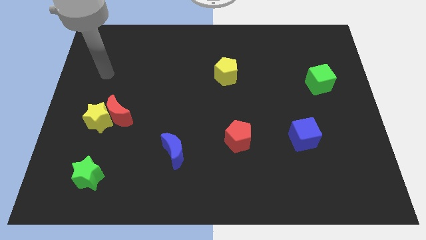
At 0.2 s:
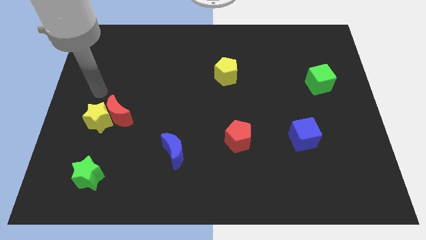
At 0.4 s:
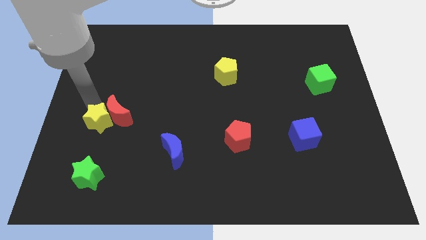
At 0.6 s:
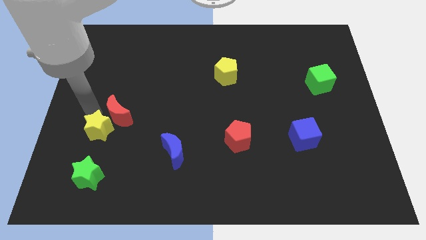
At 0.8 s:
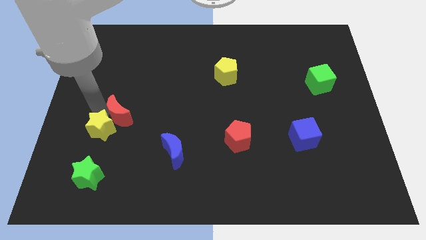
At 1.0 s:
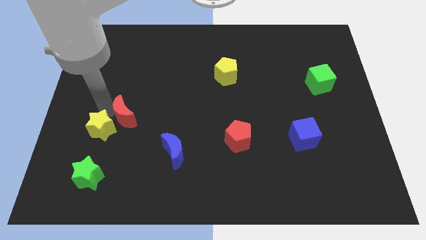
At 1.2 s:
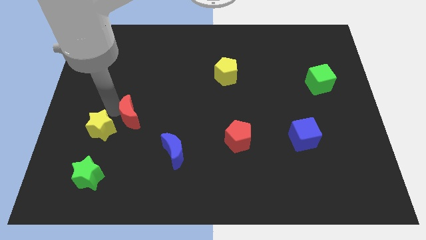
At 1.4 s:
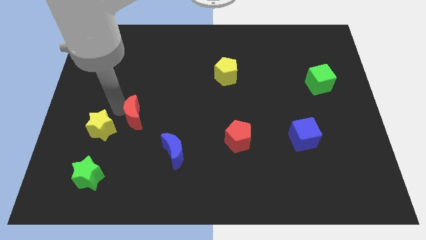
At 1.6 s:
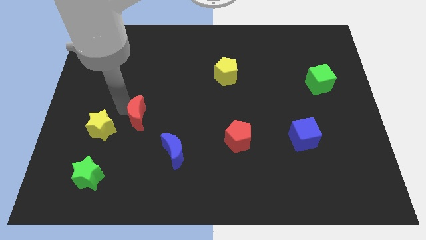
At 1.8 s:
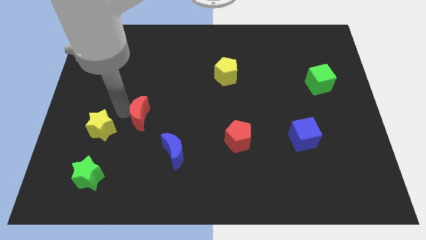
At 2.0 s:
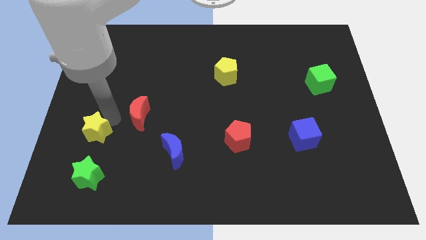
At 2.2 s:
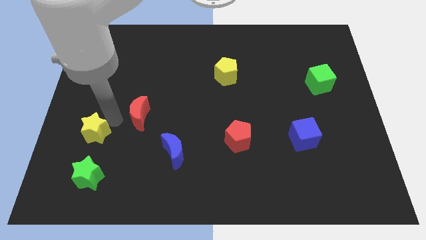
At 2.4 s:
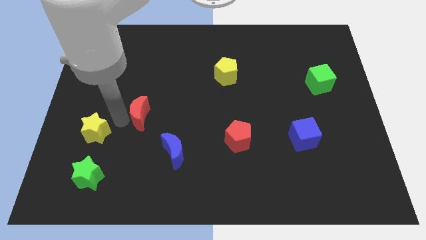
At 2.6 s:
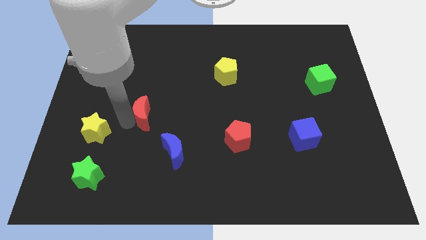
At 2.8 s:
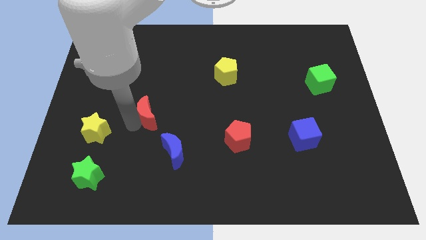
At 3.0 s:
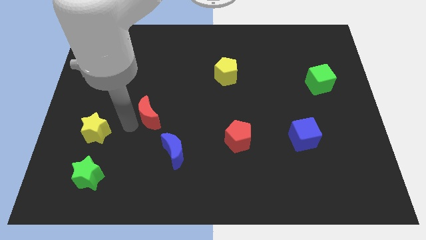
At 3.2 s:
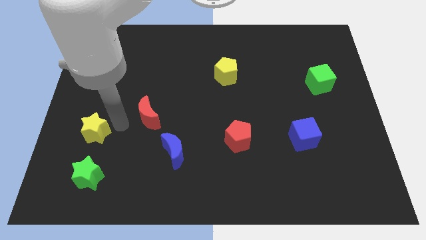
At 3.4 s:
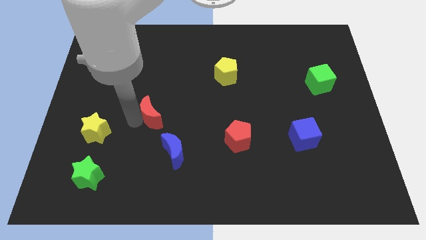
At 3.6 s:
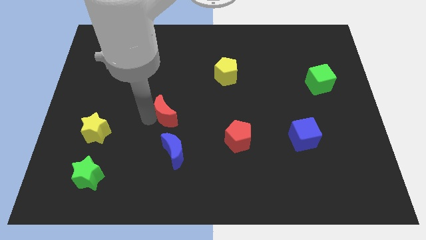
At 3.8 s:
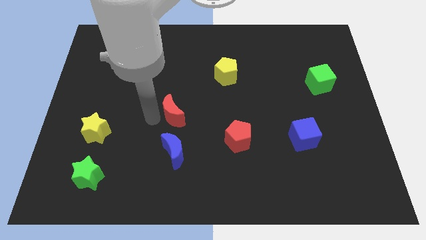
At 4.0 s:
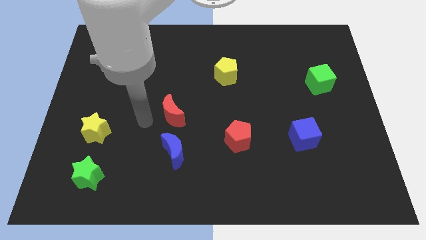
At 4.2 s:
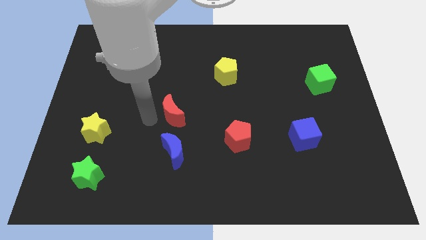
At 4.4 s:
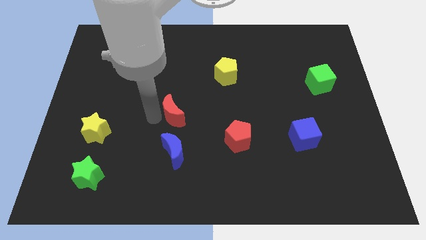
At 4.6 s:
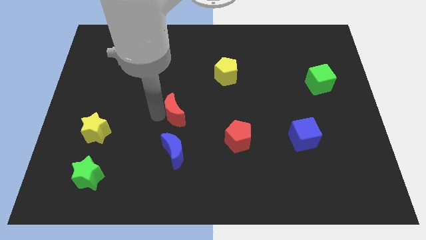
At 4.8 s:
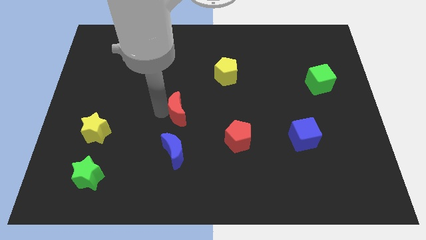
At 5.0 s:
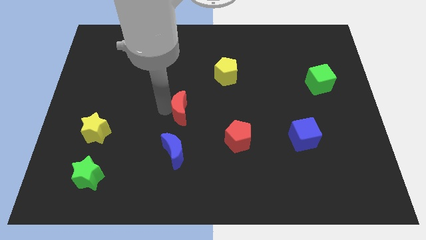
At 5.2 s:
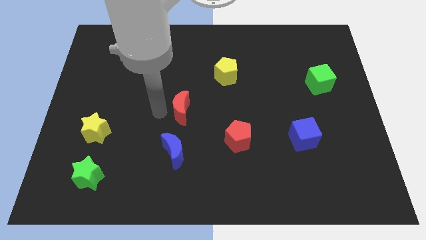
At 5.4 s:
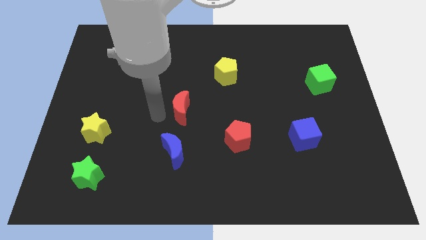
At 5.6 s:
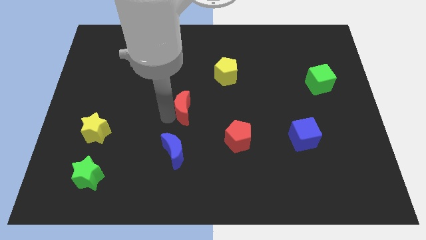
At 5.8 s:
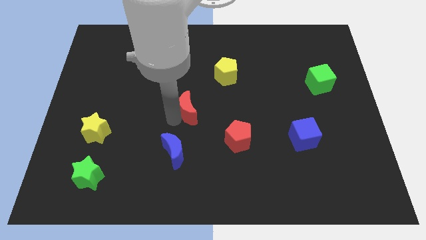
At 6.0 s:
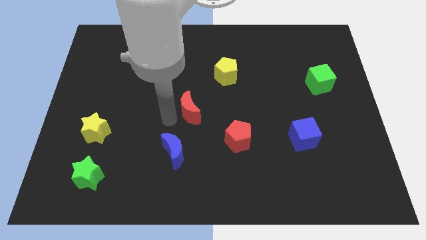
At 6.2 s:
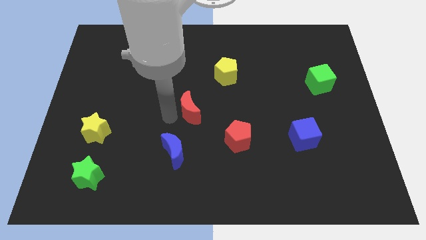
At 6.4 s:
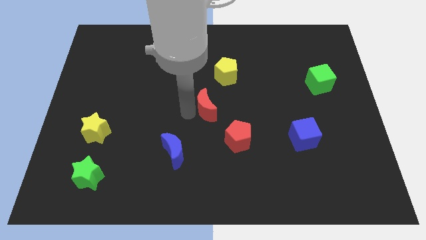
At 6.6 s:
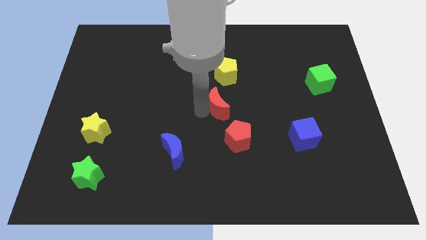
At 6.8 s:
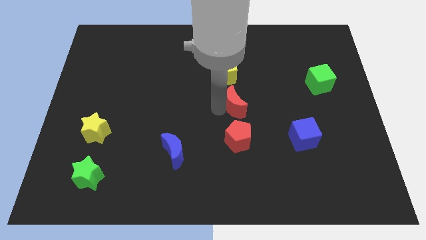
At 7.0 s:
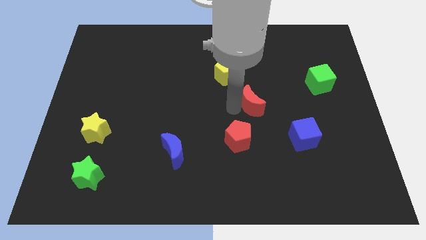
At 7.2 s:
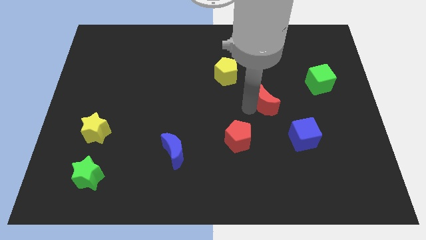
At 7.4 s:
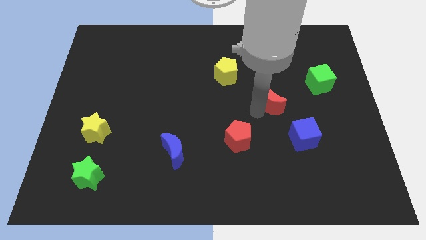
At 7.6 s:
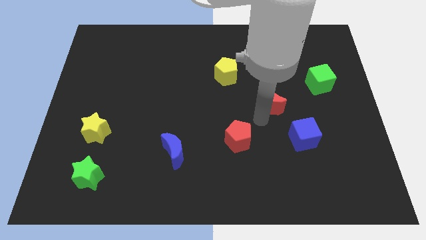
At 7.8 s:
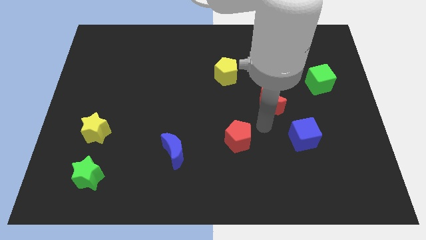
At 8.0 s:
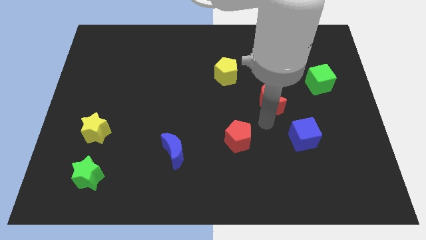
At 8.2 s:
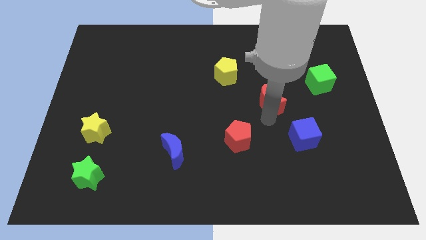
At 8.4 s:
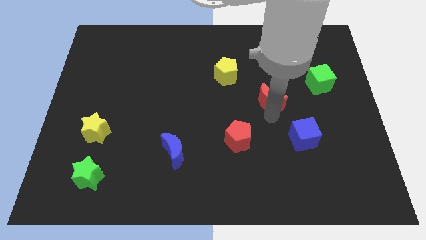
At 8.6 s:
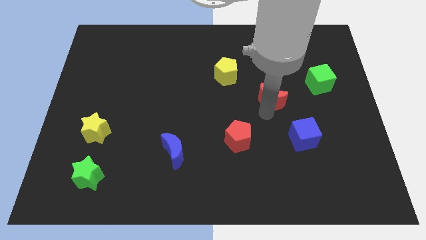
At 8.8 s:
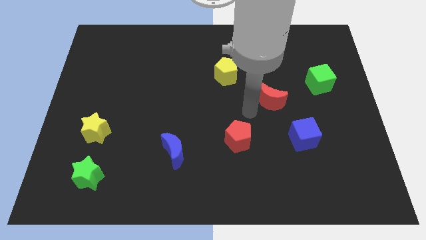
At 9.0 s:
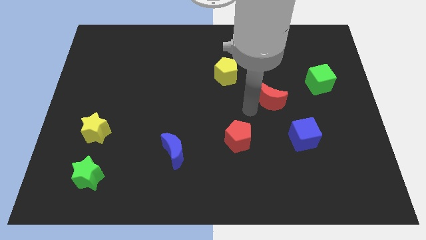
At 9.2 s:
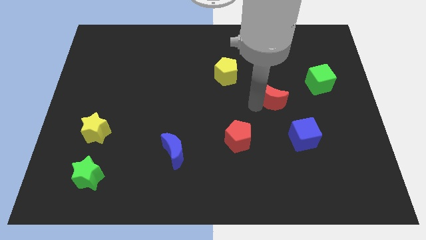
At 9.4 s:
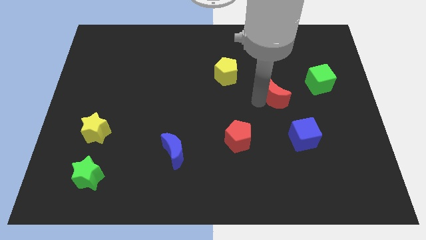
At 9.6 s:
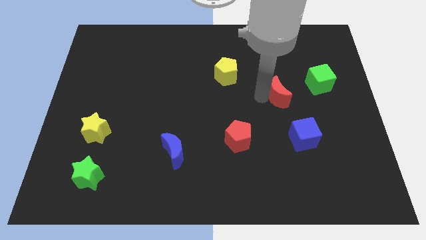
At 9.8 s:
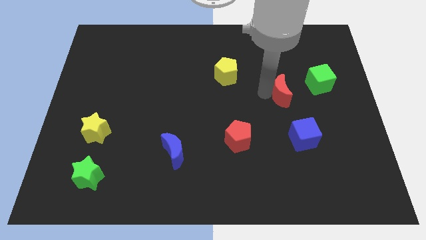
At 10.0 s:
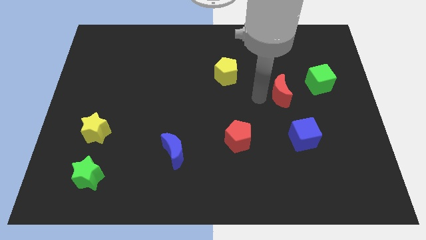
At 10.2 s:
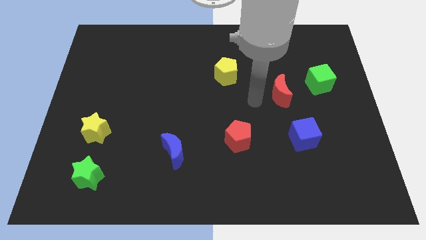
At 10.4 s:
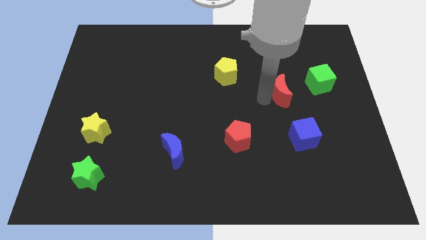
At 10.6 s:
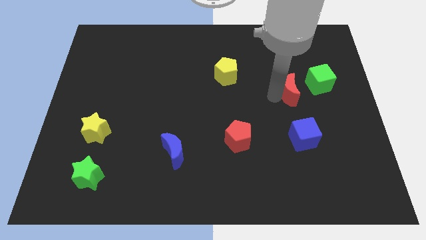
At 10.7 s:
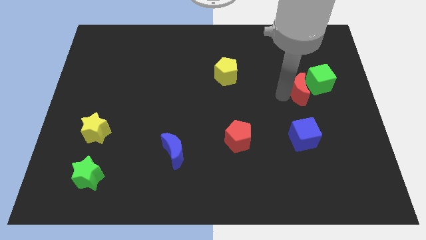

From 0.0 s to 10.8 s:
push the red moon towards the green cube
